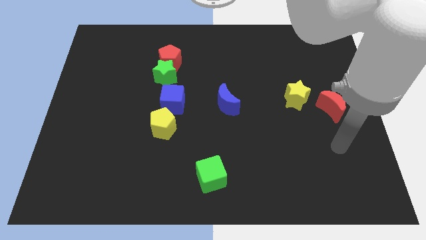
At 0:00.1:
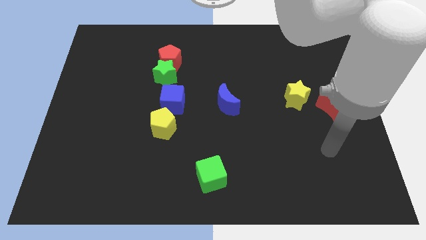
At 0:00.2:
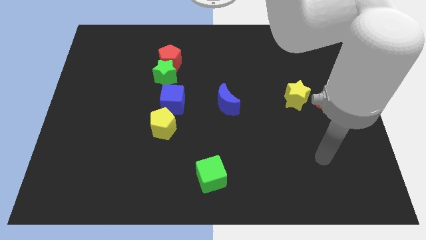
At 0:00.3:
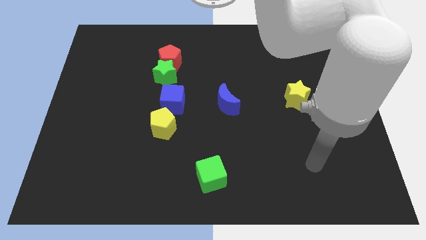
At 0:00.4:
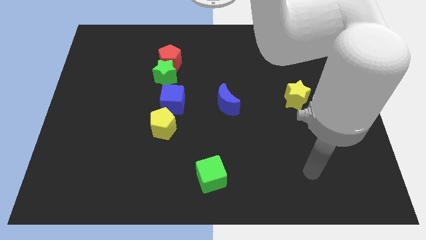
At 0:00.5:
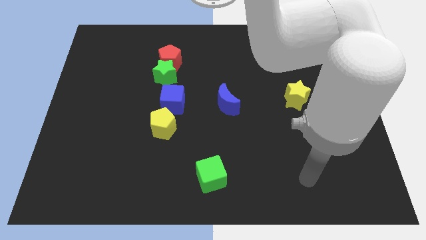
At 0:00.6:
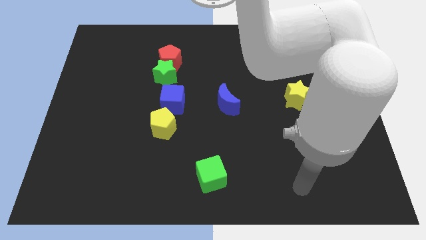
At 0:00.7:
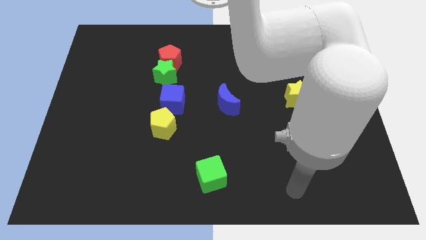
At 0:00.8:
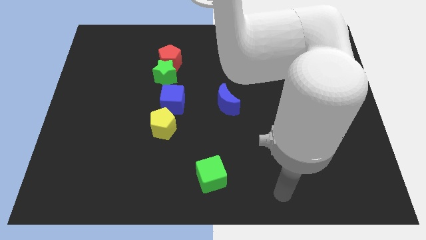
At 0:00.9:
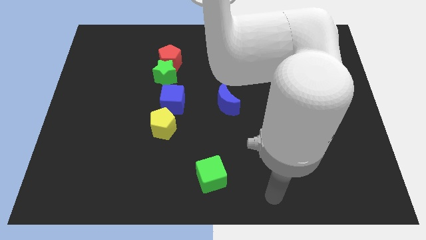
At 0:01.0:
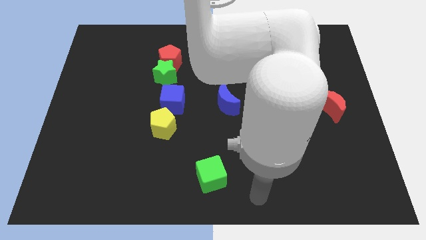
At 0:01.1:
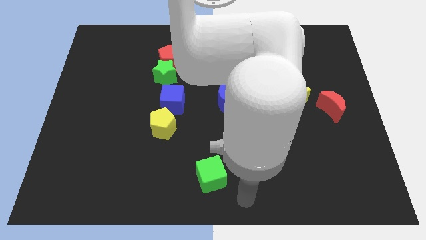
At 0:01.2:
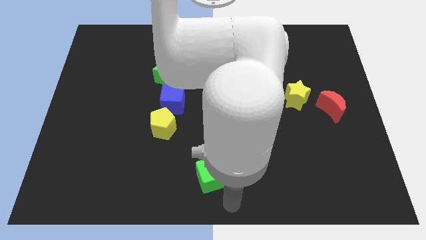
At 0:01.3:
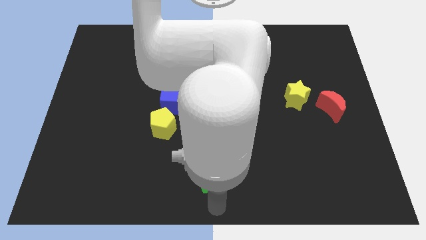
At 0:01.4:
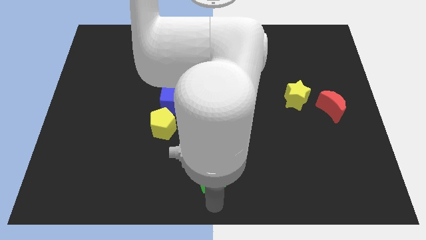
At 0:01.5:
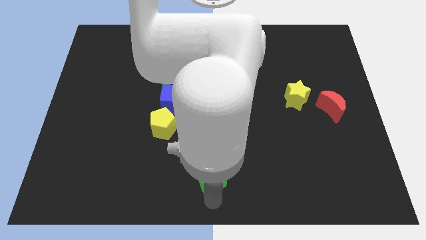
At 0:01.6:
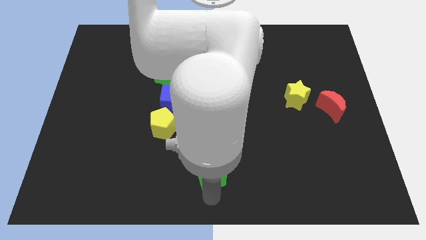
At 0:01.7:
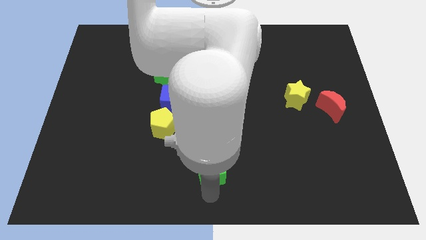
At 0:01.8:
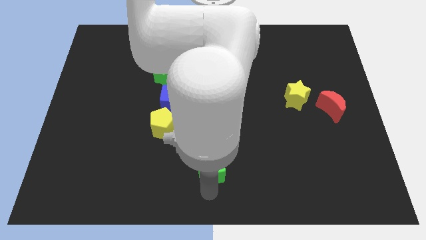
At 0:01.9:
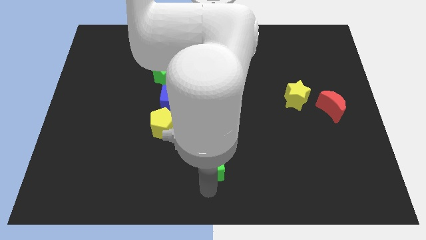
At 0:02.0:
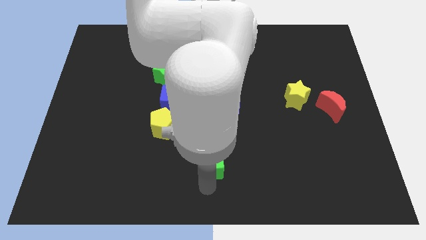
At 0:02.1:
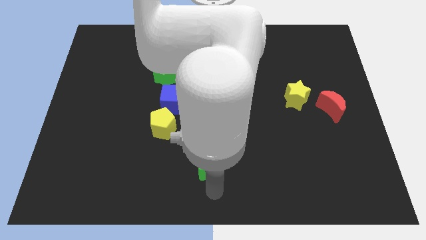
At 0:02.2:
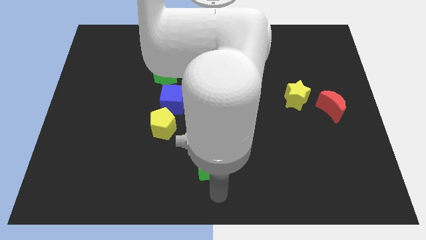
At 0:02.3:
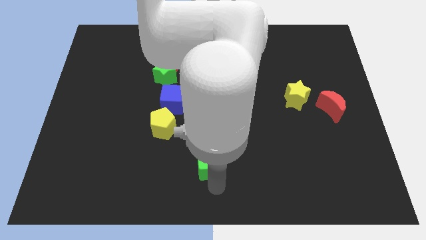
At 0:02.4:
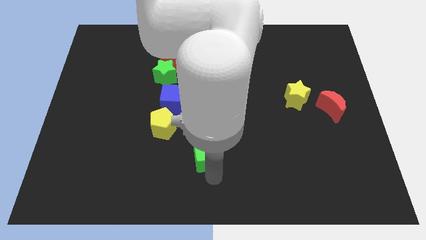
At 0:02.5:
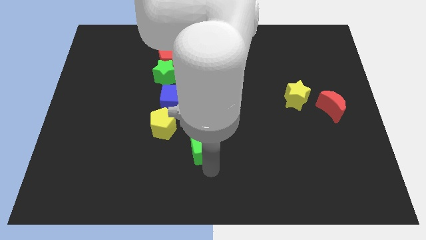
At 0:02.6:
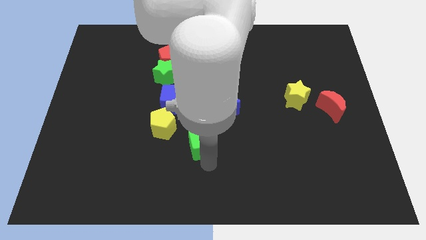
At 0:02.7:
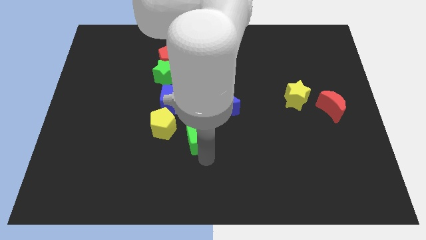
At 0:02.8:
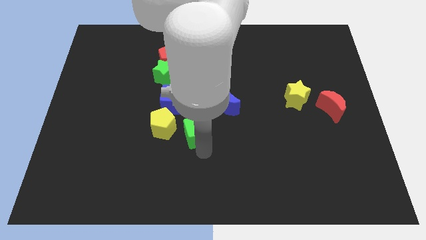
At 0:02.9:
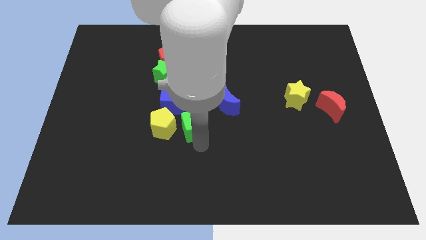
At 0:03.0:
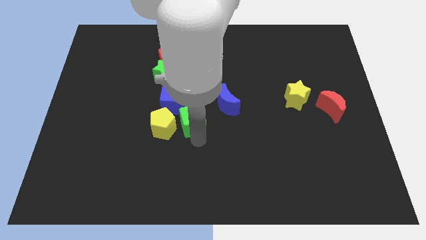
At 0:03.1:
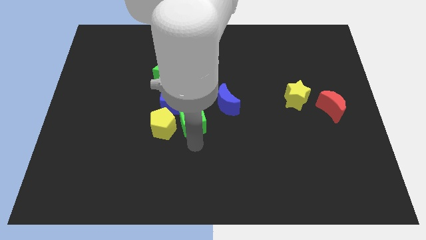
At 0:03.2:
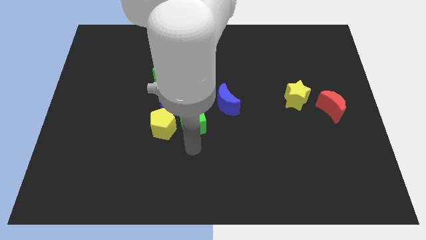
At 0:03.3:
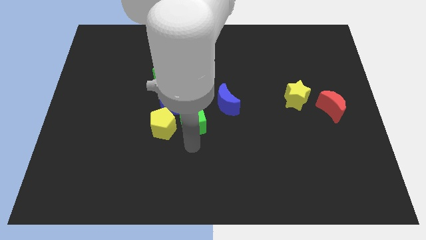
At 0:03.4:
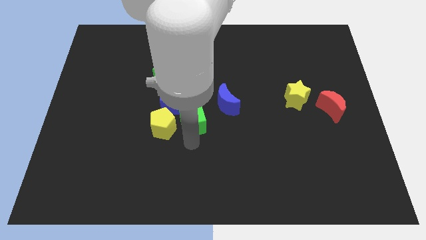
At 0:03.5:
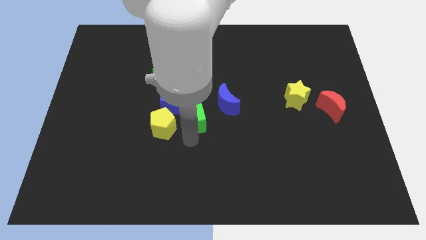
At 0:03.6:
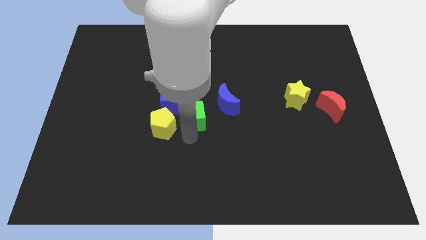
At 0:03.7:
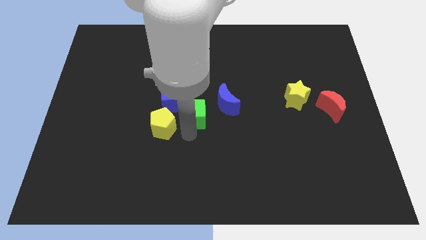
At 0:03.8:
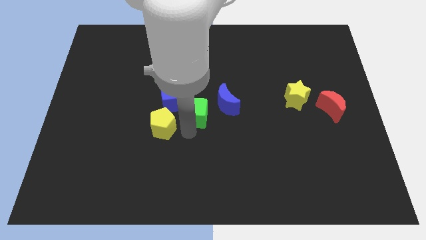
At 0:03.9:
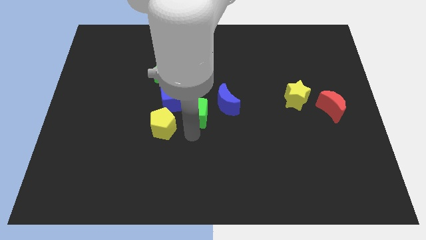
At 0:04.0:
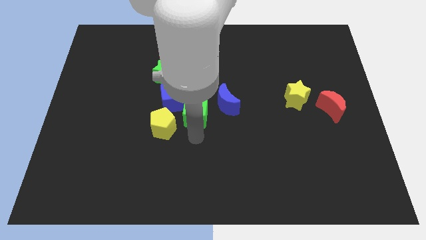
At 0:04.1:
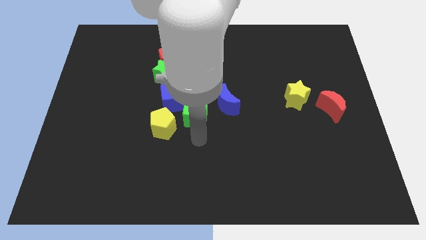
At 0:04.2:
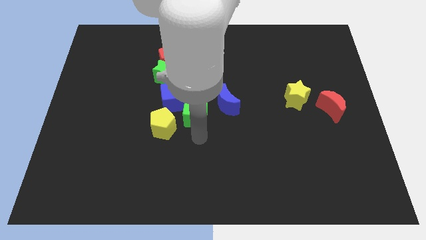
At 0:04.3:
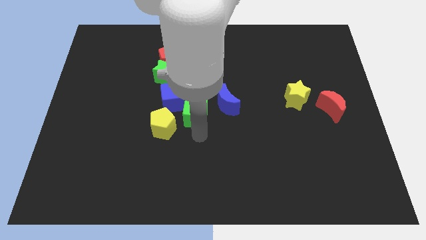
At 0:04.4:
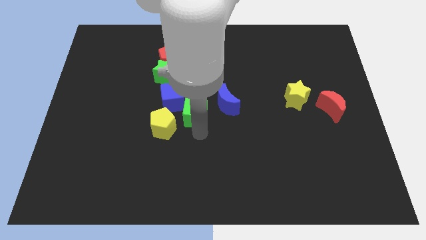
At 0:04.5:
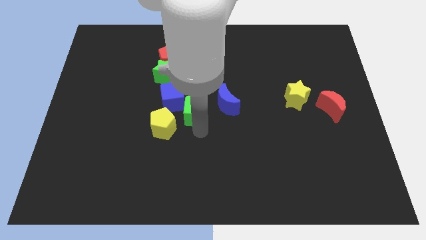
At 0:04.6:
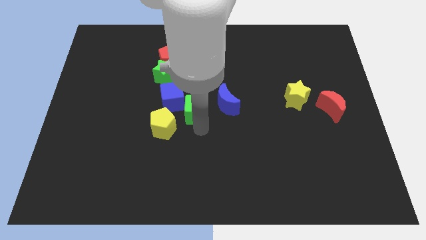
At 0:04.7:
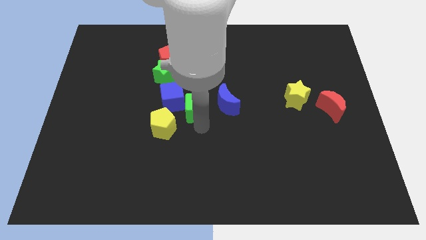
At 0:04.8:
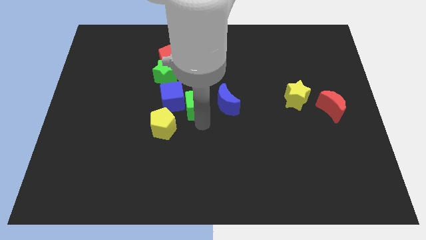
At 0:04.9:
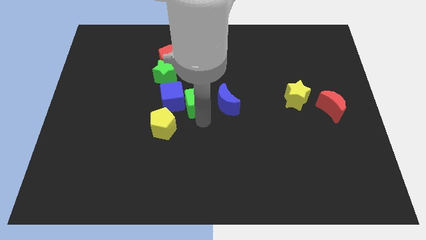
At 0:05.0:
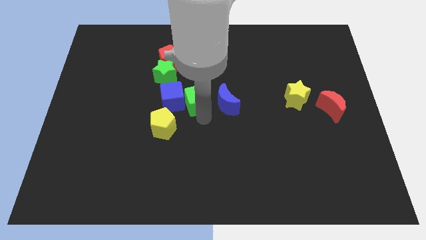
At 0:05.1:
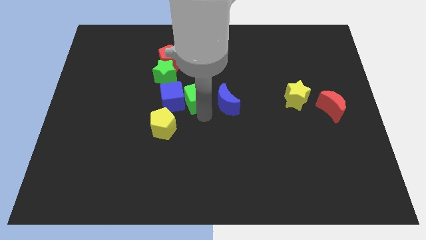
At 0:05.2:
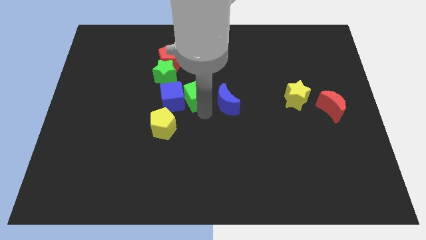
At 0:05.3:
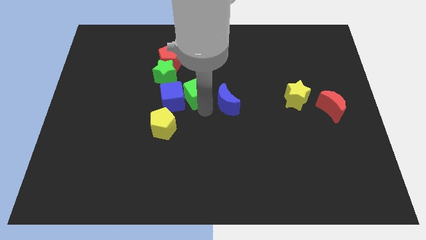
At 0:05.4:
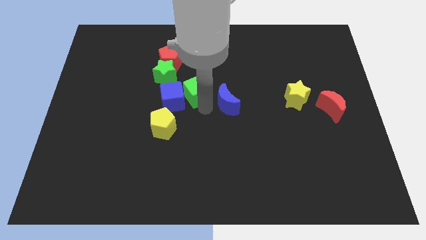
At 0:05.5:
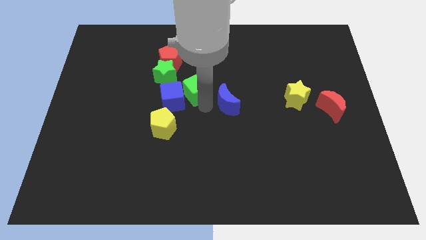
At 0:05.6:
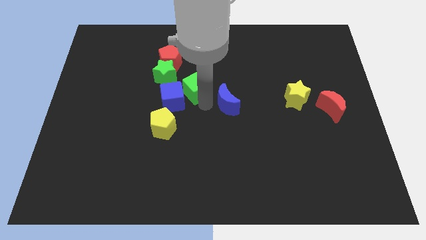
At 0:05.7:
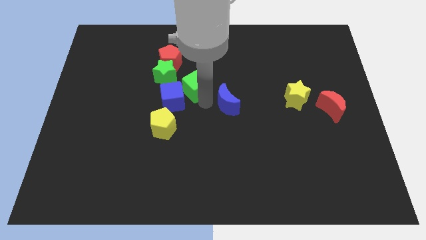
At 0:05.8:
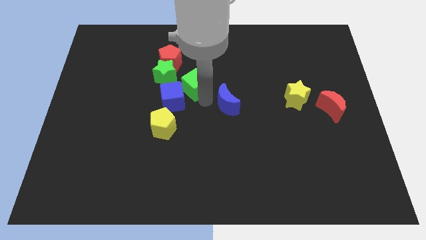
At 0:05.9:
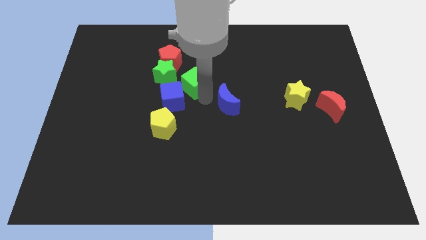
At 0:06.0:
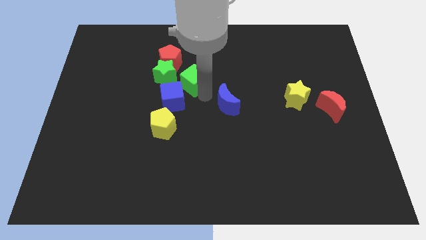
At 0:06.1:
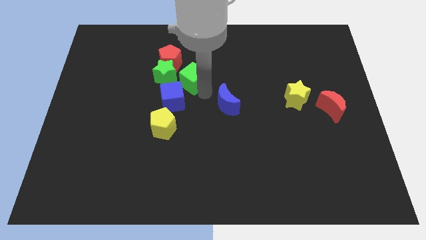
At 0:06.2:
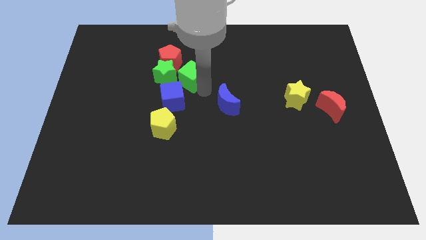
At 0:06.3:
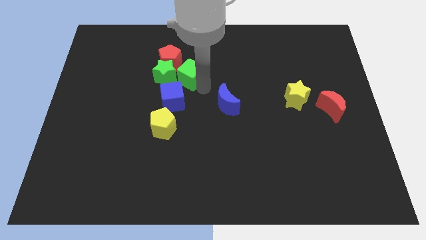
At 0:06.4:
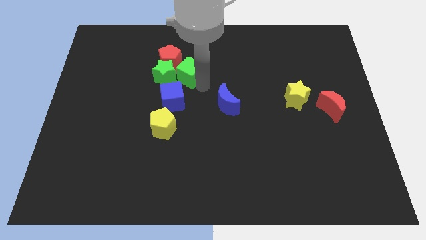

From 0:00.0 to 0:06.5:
slide the green cube to the green star
